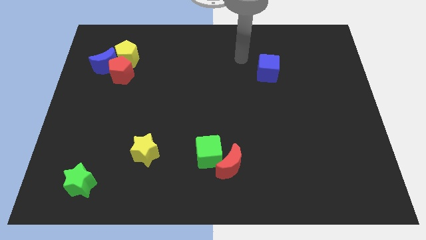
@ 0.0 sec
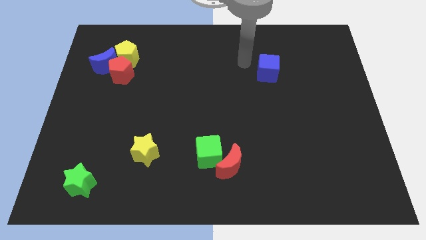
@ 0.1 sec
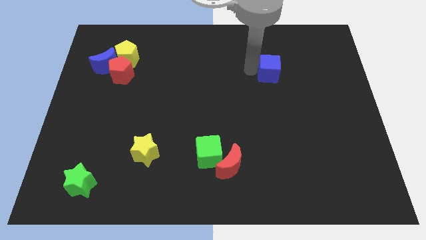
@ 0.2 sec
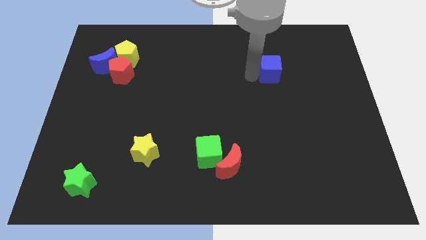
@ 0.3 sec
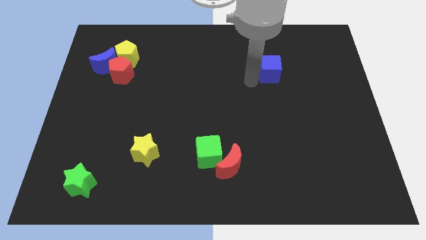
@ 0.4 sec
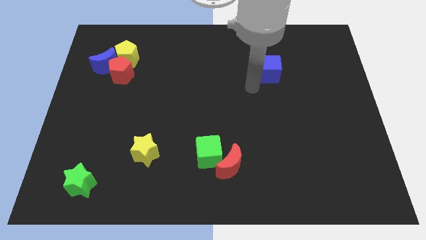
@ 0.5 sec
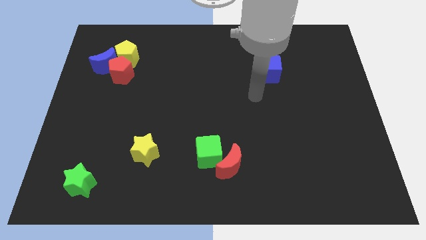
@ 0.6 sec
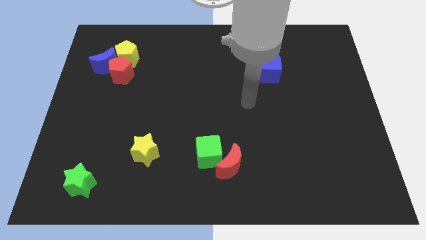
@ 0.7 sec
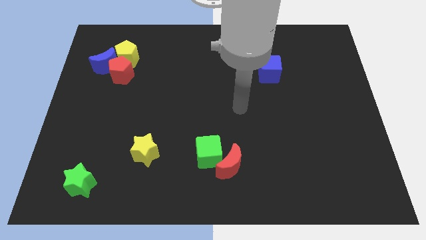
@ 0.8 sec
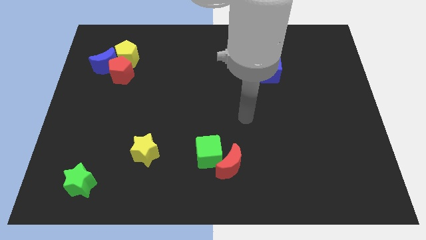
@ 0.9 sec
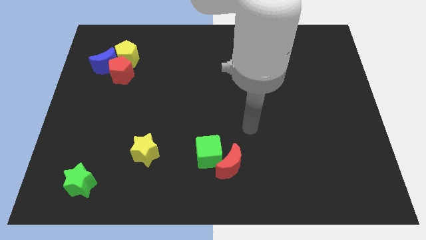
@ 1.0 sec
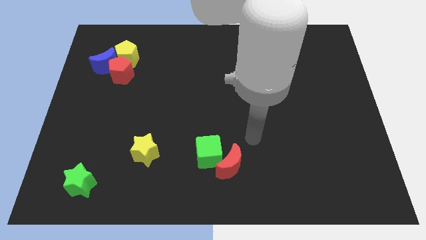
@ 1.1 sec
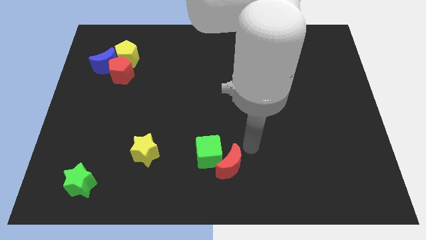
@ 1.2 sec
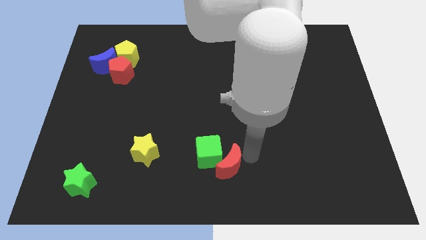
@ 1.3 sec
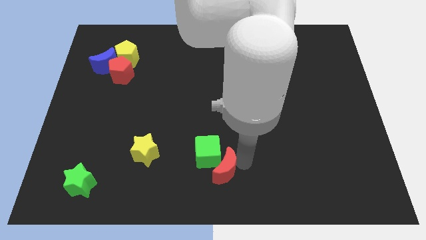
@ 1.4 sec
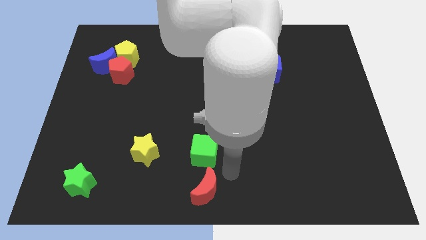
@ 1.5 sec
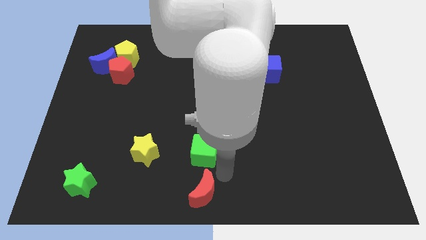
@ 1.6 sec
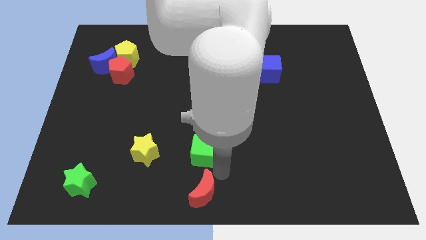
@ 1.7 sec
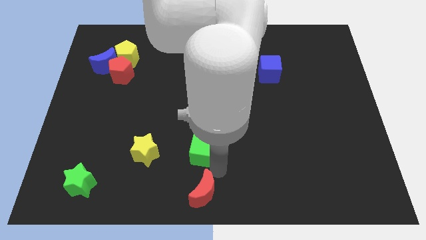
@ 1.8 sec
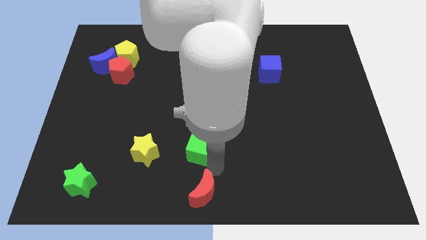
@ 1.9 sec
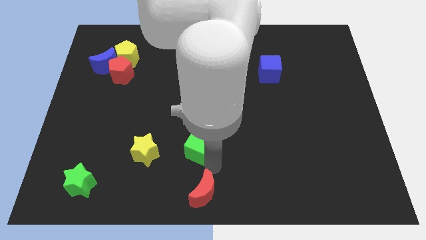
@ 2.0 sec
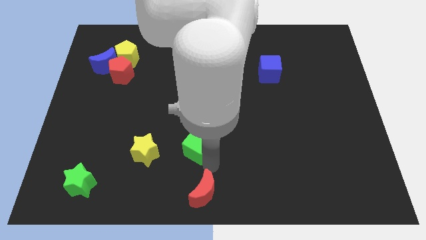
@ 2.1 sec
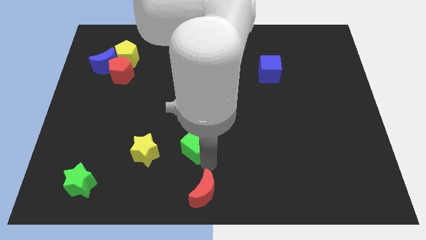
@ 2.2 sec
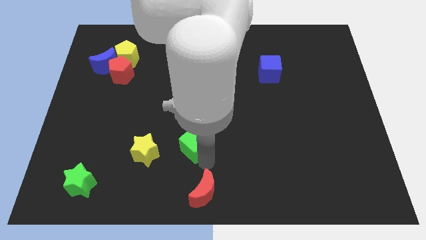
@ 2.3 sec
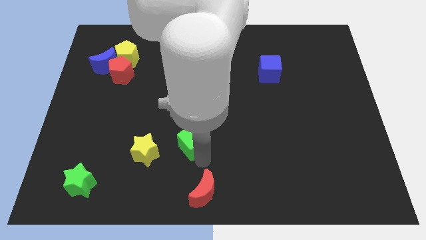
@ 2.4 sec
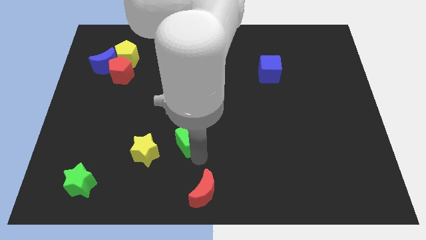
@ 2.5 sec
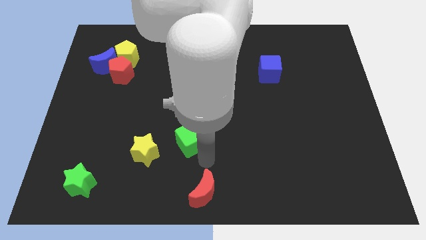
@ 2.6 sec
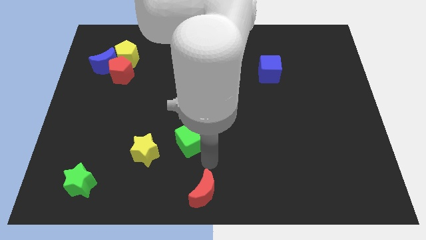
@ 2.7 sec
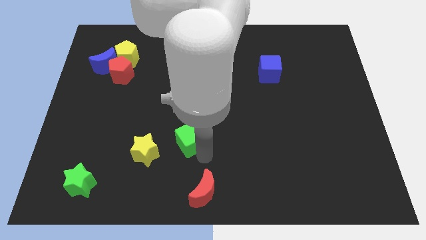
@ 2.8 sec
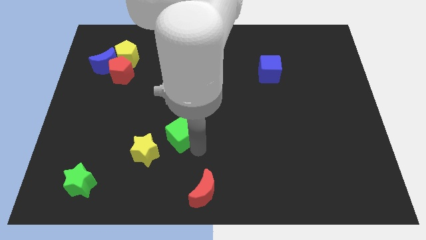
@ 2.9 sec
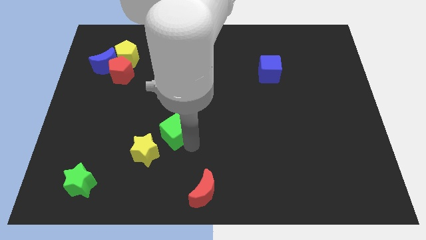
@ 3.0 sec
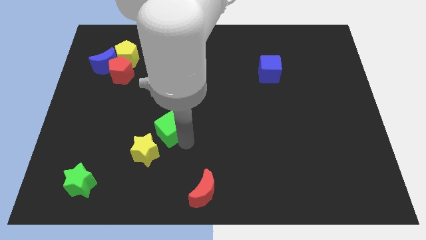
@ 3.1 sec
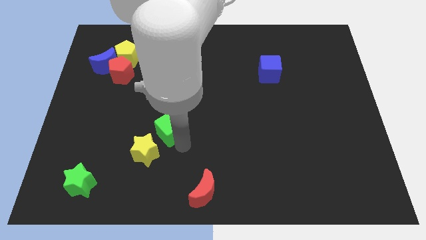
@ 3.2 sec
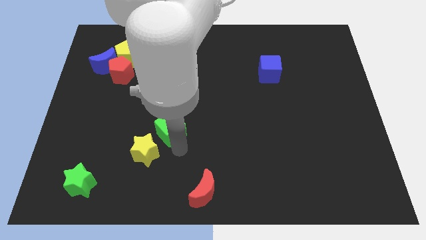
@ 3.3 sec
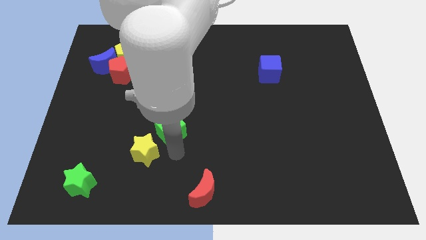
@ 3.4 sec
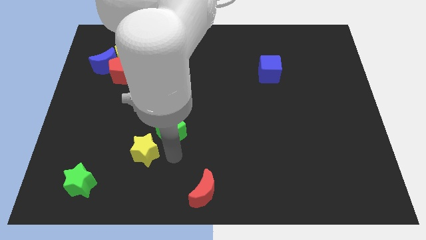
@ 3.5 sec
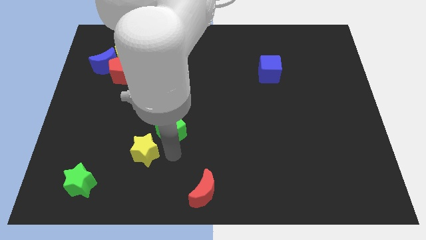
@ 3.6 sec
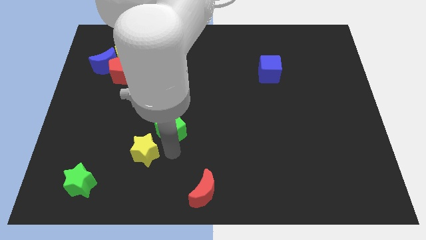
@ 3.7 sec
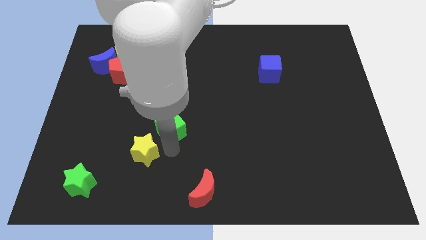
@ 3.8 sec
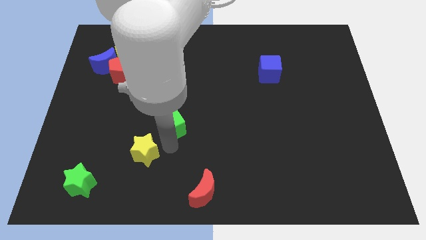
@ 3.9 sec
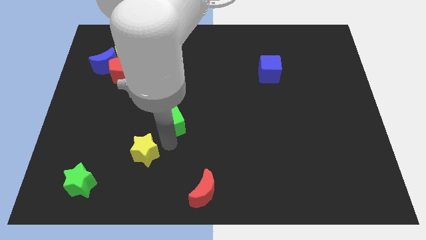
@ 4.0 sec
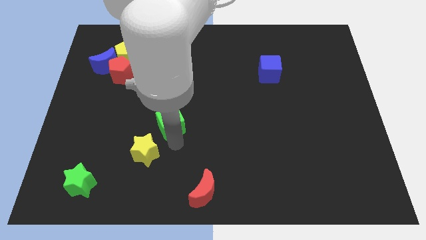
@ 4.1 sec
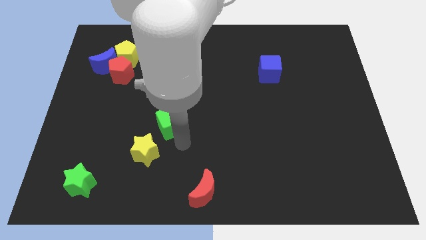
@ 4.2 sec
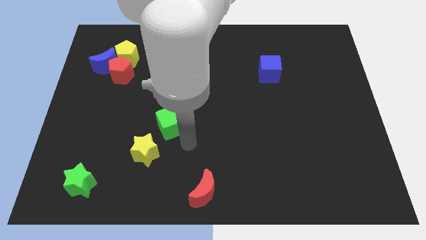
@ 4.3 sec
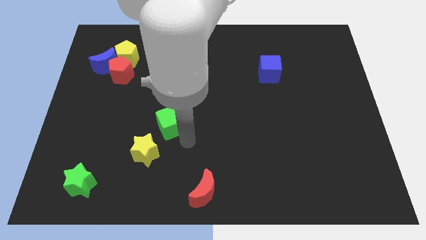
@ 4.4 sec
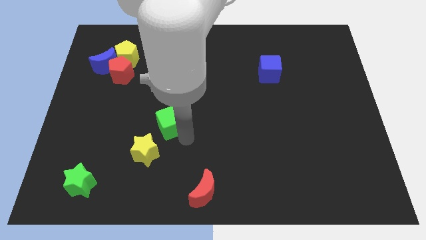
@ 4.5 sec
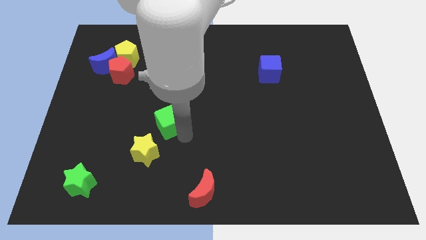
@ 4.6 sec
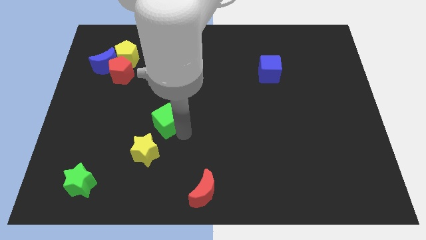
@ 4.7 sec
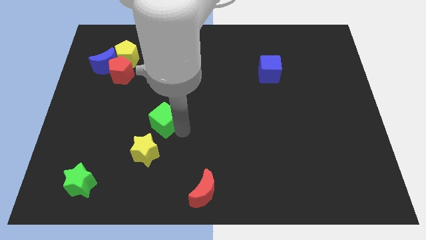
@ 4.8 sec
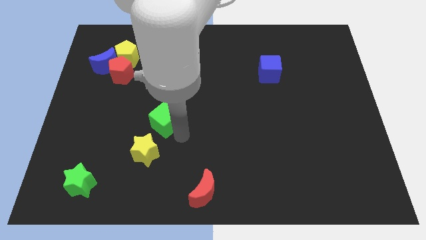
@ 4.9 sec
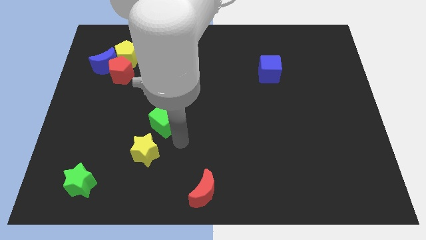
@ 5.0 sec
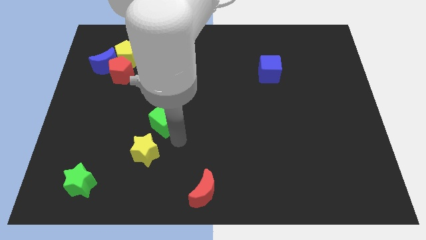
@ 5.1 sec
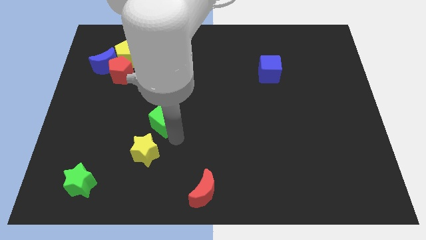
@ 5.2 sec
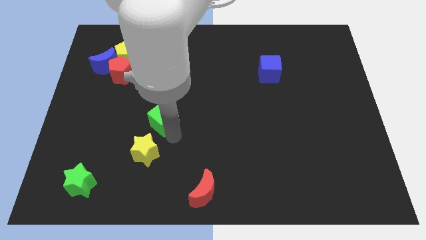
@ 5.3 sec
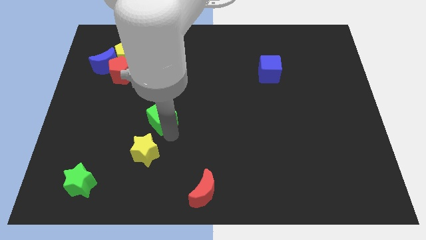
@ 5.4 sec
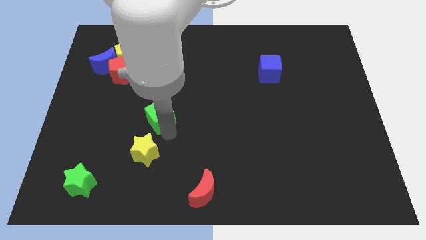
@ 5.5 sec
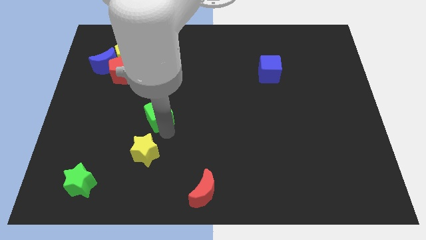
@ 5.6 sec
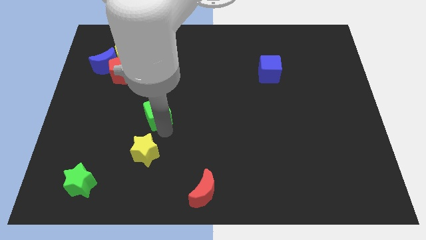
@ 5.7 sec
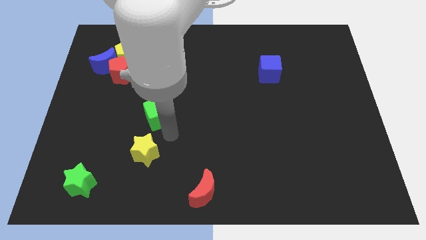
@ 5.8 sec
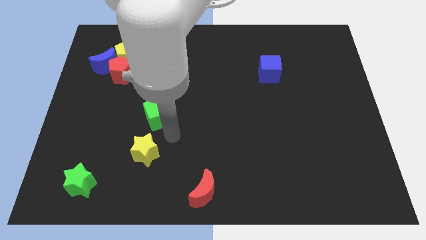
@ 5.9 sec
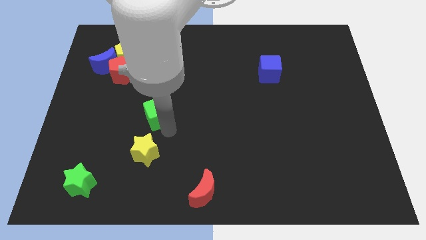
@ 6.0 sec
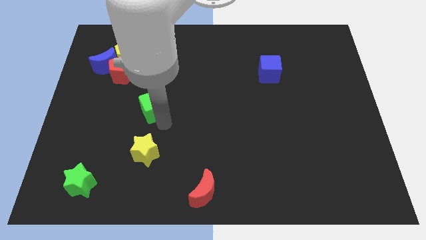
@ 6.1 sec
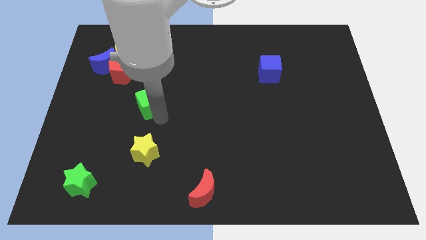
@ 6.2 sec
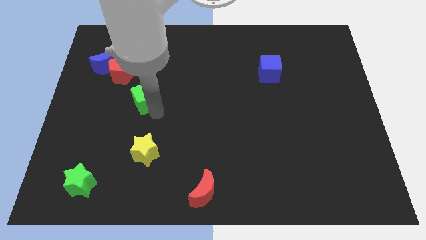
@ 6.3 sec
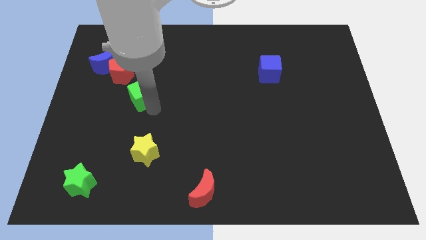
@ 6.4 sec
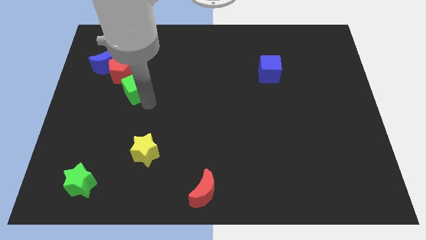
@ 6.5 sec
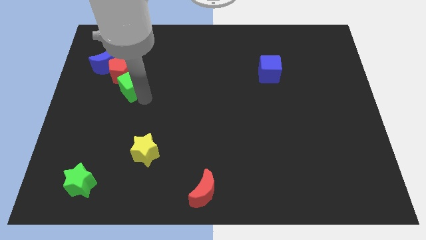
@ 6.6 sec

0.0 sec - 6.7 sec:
push the green cube to the red pentagon

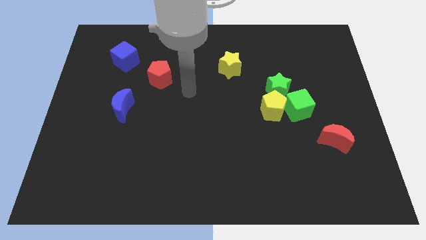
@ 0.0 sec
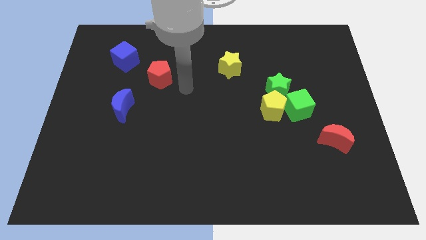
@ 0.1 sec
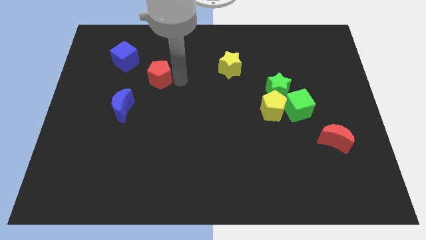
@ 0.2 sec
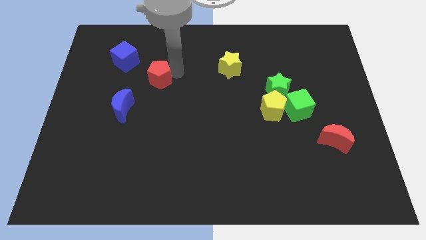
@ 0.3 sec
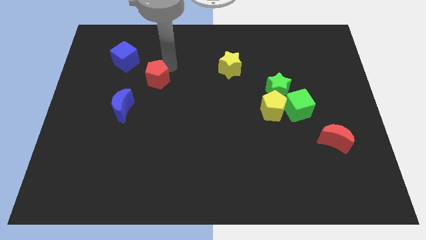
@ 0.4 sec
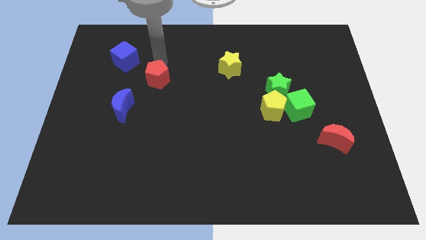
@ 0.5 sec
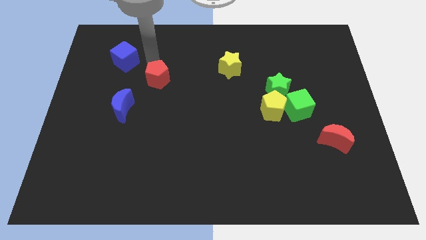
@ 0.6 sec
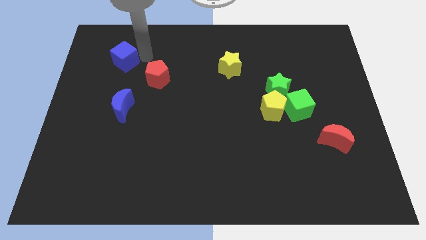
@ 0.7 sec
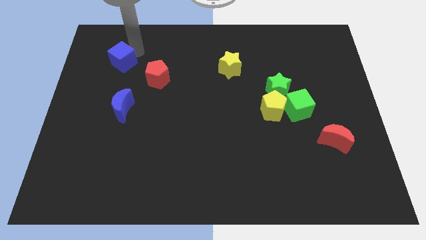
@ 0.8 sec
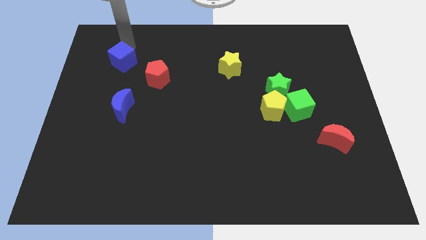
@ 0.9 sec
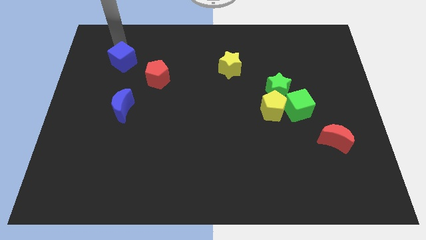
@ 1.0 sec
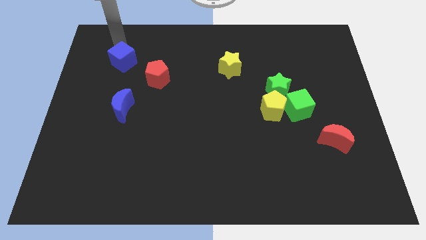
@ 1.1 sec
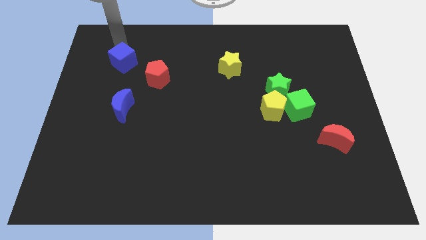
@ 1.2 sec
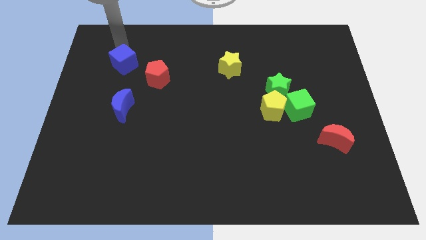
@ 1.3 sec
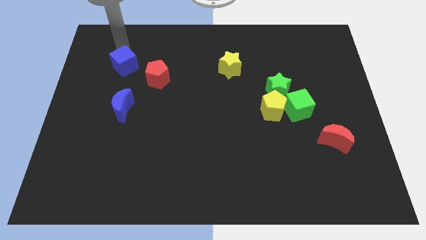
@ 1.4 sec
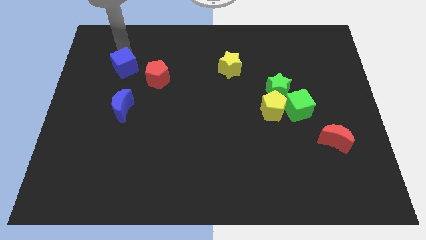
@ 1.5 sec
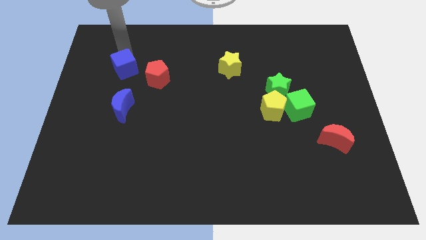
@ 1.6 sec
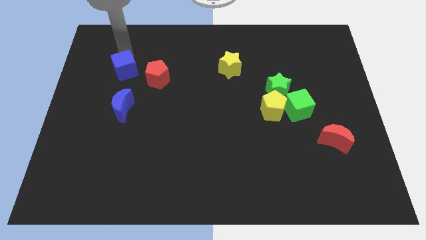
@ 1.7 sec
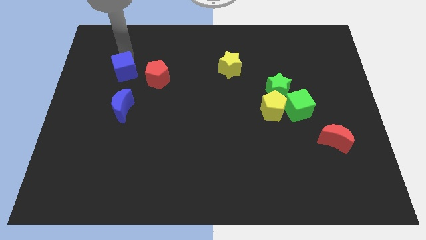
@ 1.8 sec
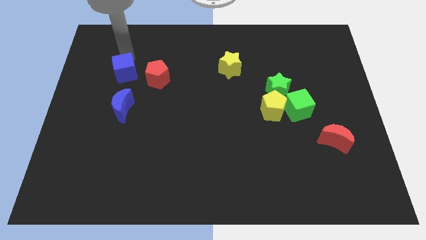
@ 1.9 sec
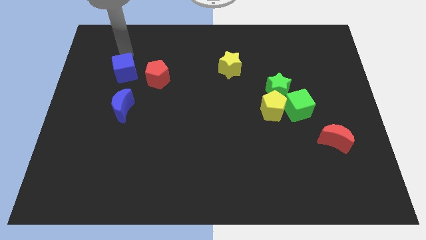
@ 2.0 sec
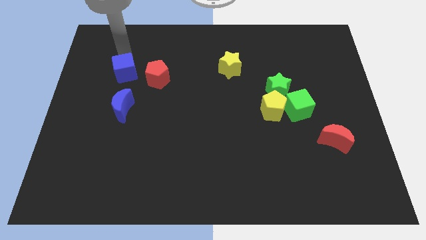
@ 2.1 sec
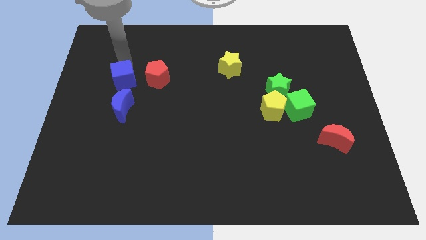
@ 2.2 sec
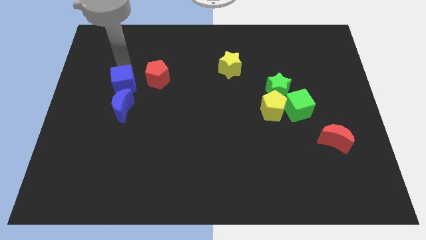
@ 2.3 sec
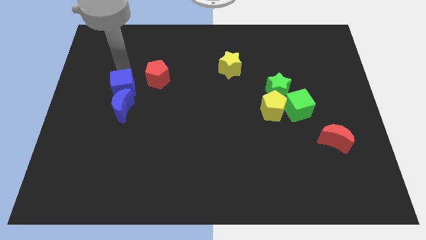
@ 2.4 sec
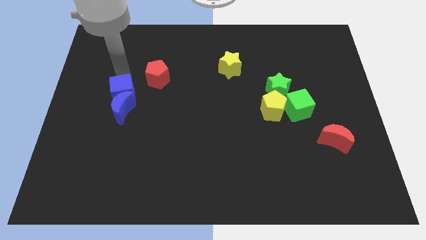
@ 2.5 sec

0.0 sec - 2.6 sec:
push the blue cube close to the blue moon
